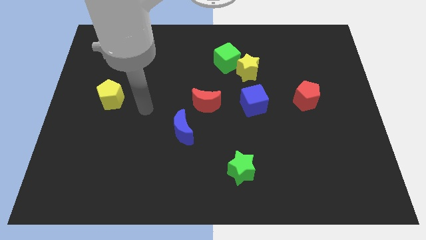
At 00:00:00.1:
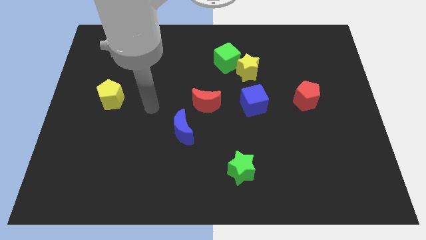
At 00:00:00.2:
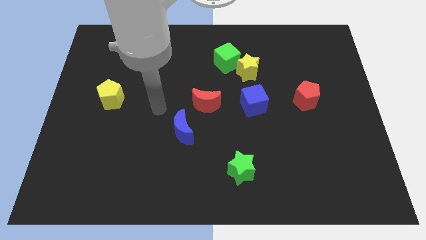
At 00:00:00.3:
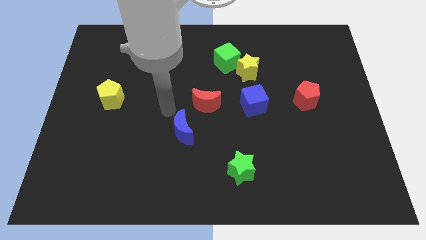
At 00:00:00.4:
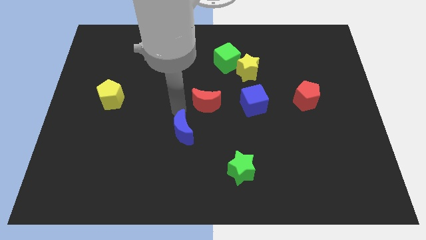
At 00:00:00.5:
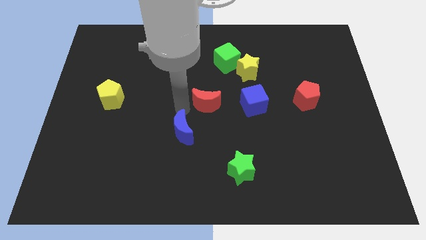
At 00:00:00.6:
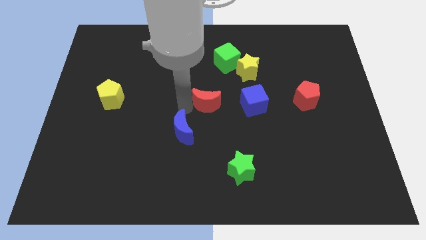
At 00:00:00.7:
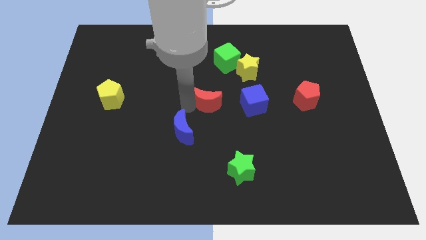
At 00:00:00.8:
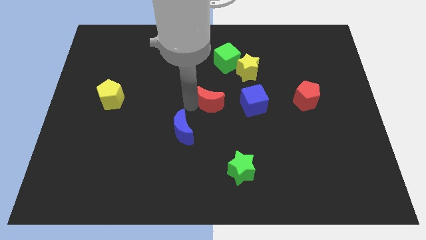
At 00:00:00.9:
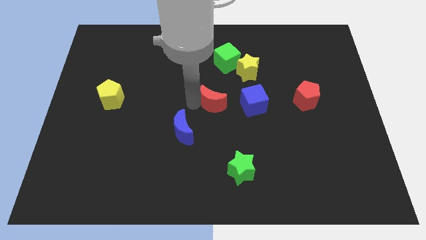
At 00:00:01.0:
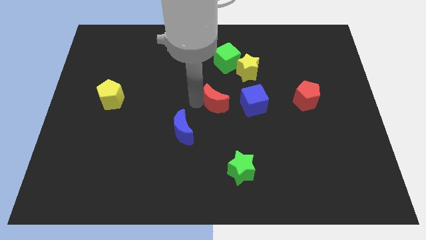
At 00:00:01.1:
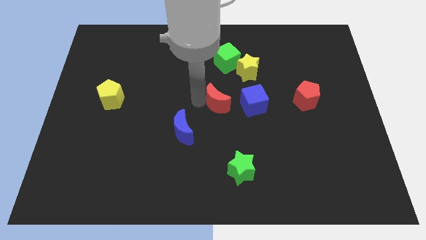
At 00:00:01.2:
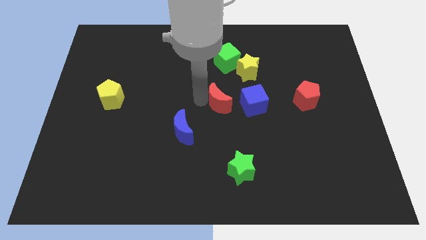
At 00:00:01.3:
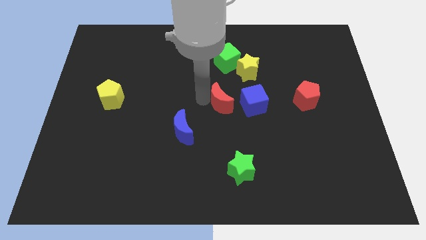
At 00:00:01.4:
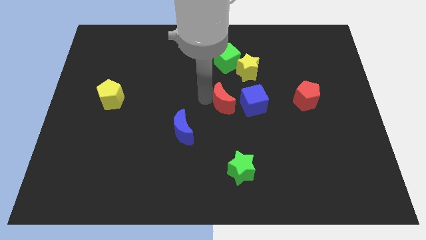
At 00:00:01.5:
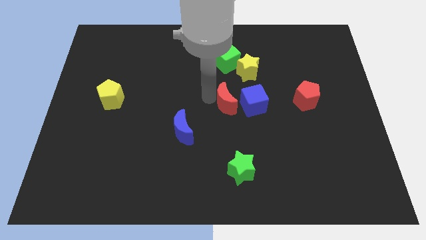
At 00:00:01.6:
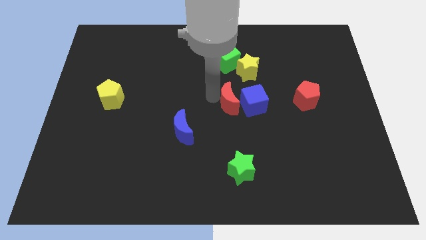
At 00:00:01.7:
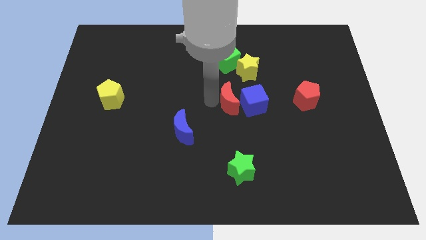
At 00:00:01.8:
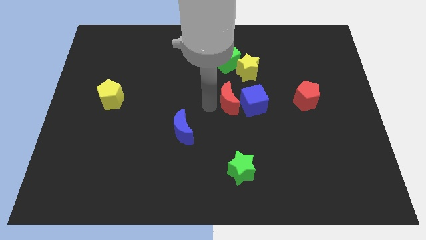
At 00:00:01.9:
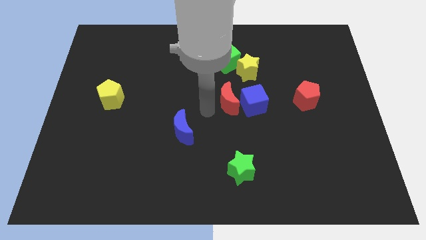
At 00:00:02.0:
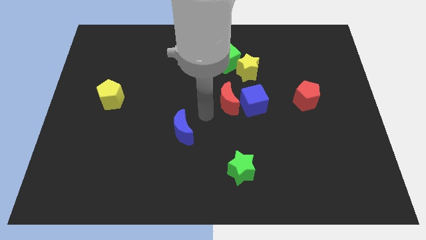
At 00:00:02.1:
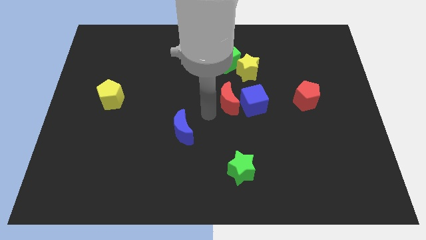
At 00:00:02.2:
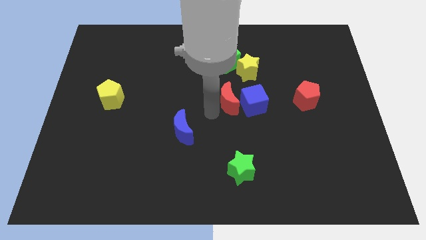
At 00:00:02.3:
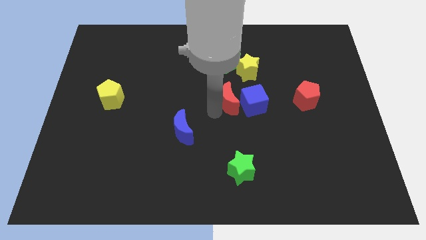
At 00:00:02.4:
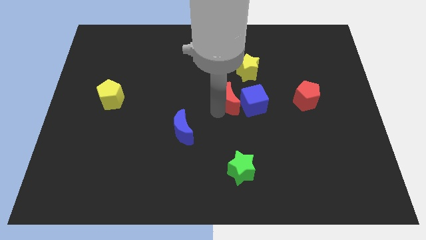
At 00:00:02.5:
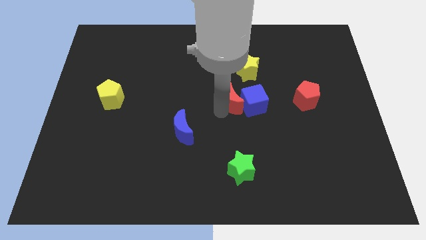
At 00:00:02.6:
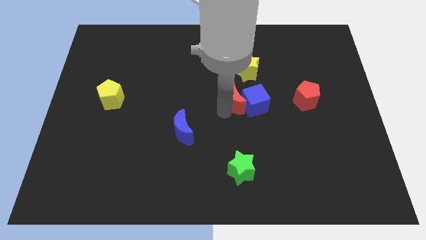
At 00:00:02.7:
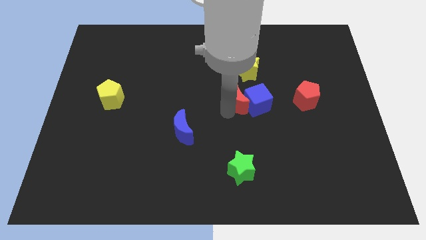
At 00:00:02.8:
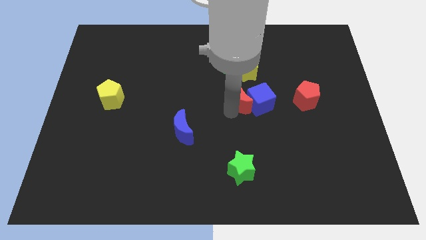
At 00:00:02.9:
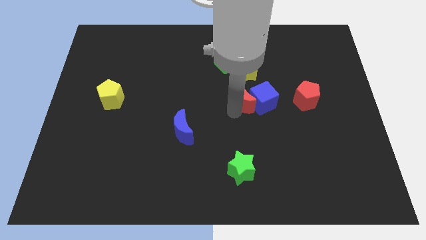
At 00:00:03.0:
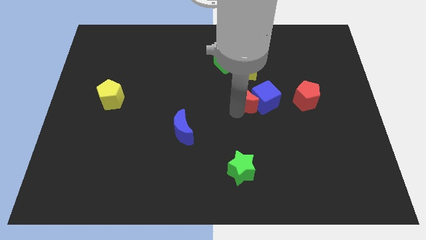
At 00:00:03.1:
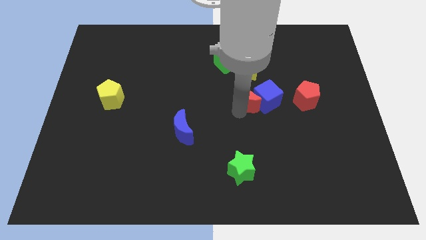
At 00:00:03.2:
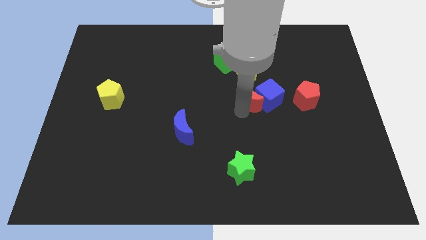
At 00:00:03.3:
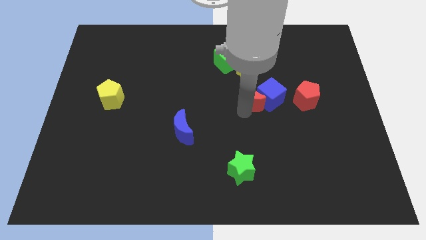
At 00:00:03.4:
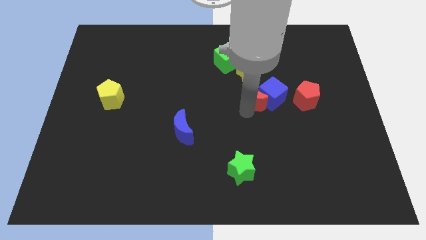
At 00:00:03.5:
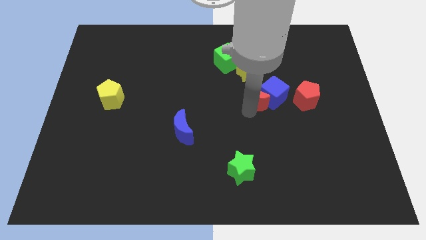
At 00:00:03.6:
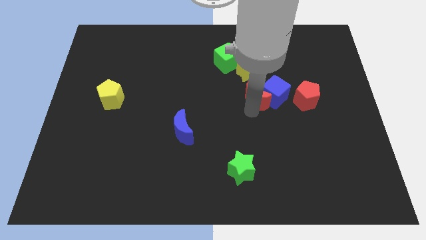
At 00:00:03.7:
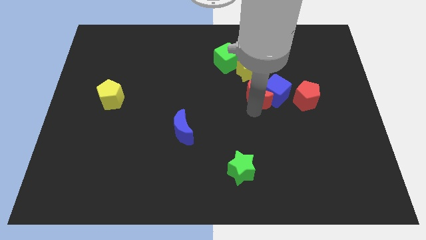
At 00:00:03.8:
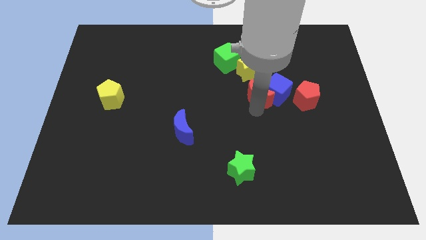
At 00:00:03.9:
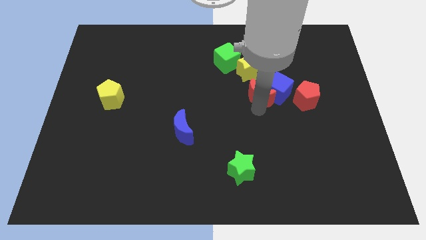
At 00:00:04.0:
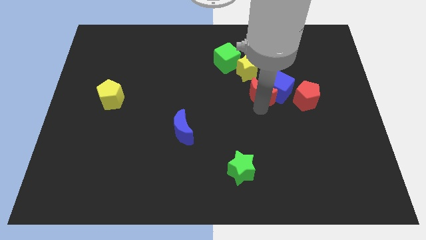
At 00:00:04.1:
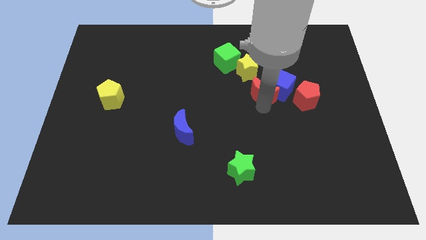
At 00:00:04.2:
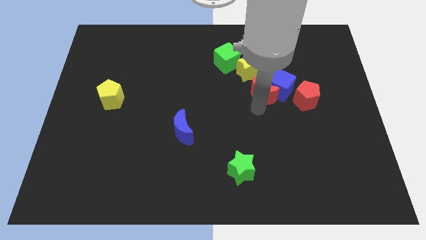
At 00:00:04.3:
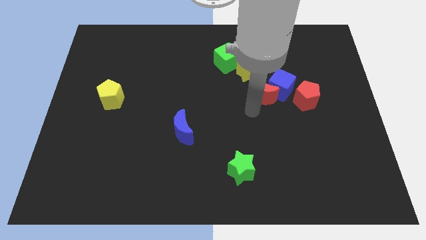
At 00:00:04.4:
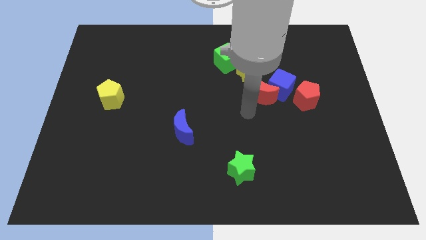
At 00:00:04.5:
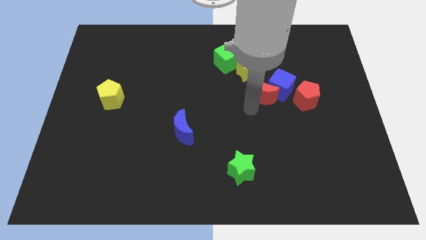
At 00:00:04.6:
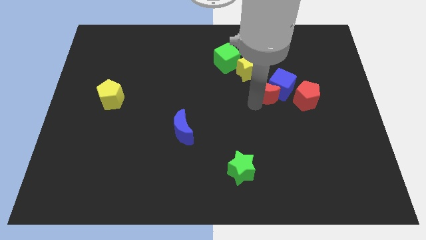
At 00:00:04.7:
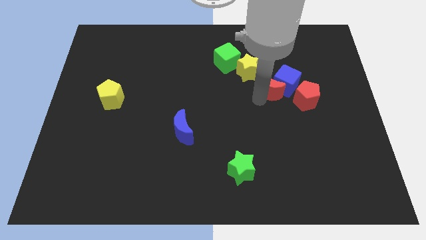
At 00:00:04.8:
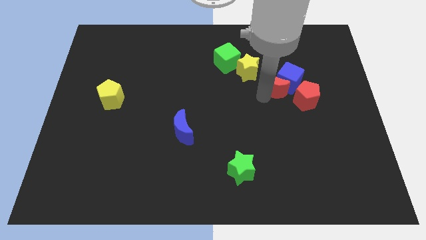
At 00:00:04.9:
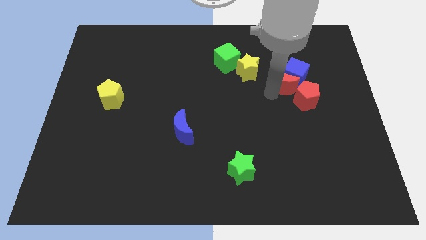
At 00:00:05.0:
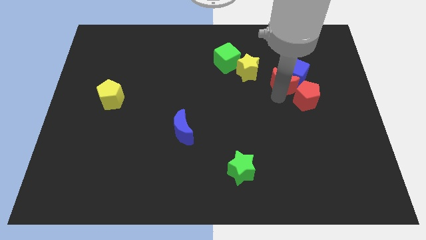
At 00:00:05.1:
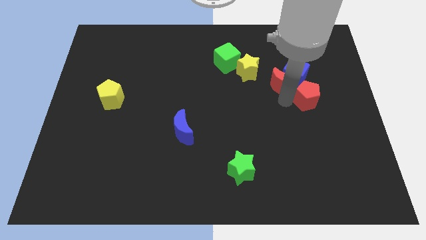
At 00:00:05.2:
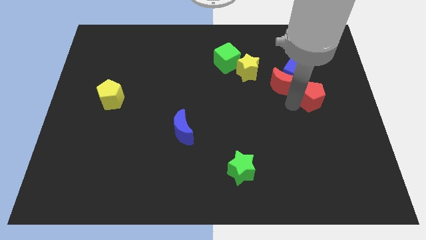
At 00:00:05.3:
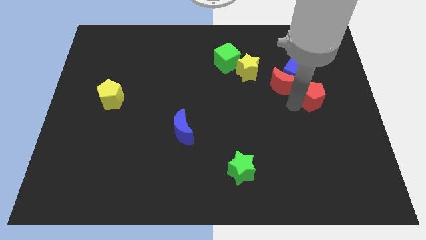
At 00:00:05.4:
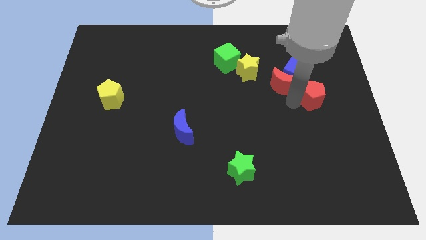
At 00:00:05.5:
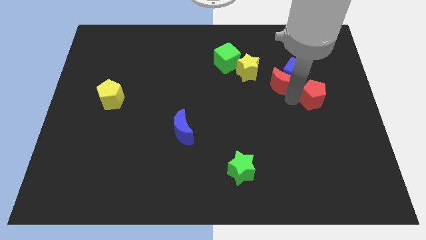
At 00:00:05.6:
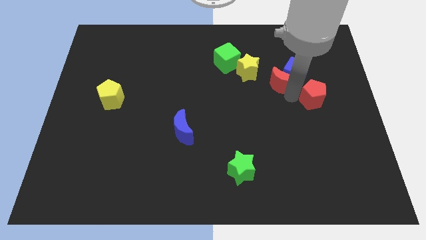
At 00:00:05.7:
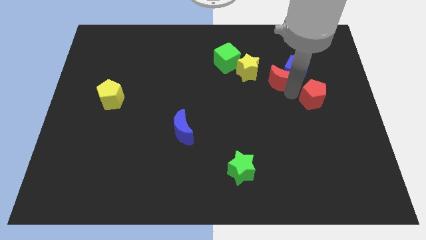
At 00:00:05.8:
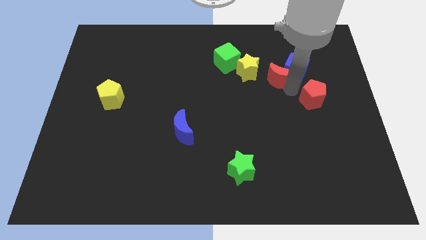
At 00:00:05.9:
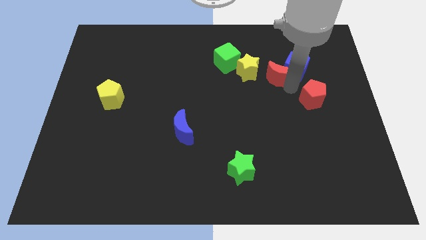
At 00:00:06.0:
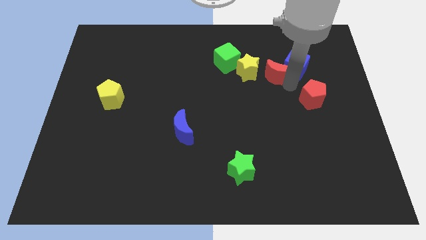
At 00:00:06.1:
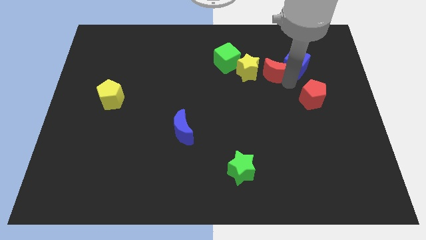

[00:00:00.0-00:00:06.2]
move the red moon just right of the green cube

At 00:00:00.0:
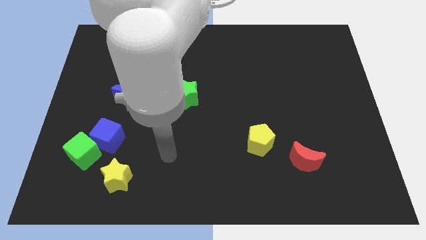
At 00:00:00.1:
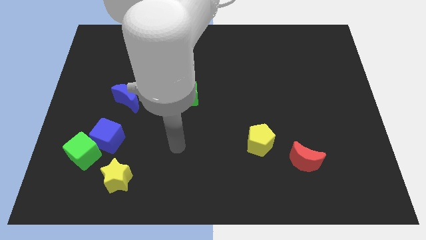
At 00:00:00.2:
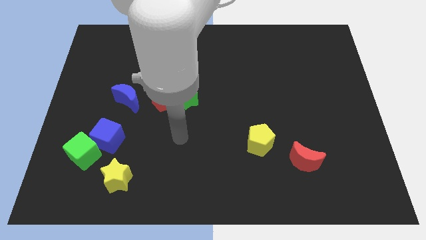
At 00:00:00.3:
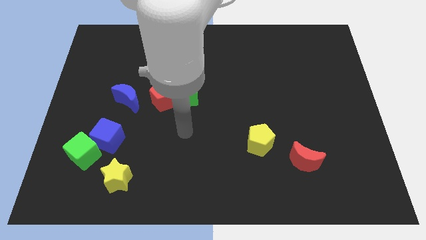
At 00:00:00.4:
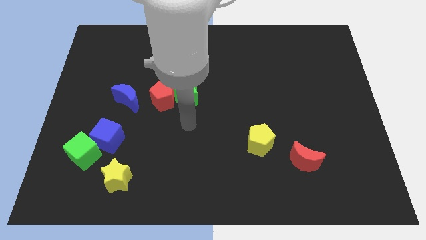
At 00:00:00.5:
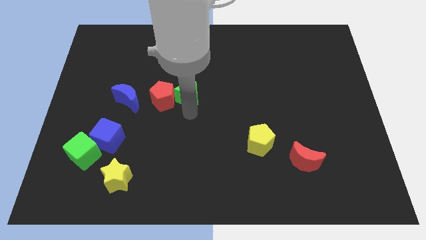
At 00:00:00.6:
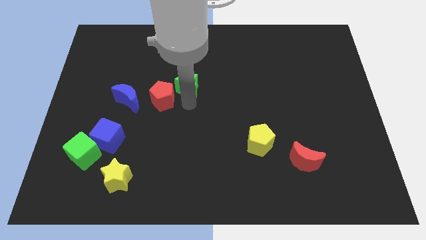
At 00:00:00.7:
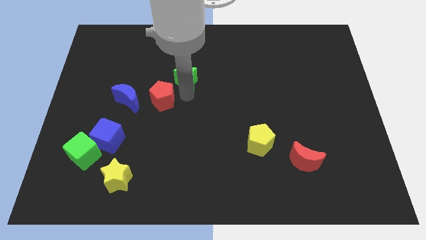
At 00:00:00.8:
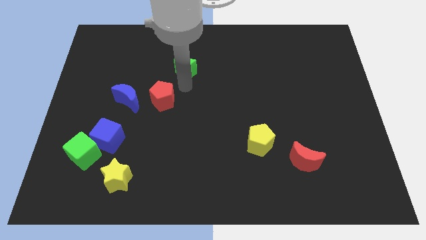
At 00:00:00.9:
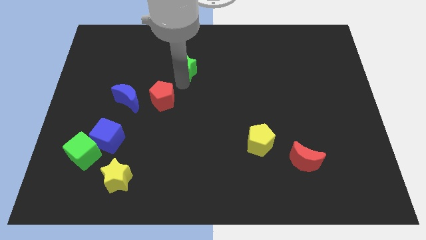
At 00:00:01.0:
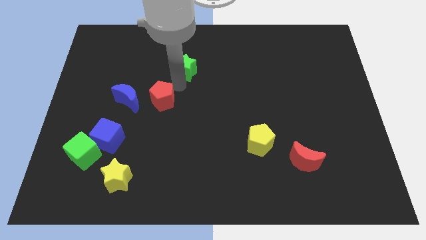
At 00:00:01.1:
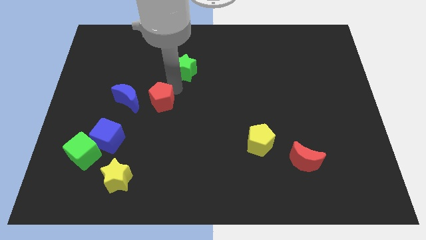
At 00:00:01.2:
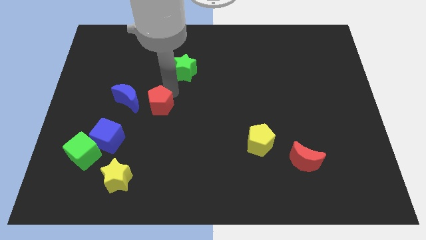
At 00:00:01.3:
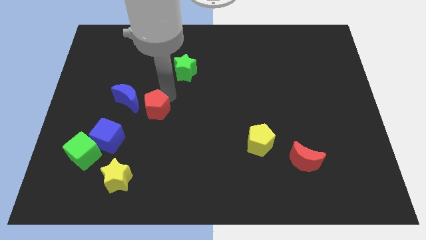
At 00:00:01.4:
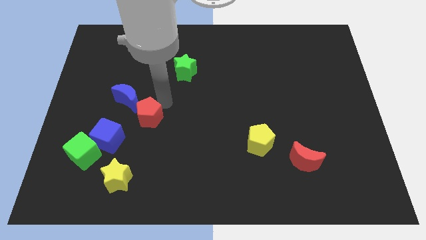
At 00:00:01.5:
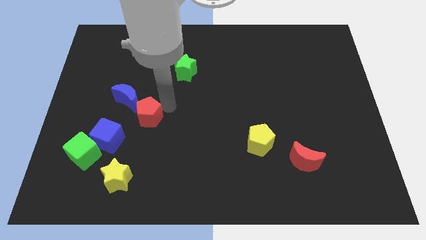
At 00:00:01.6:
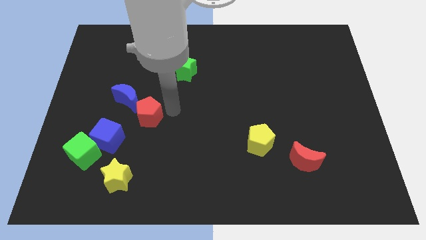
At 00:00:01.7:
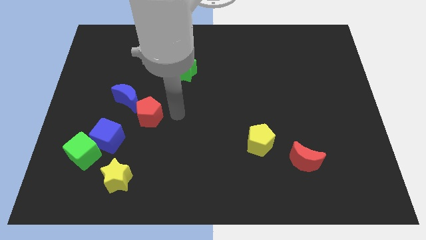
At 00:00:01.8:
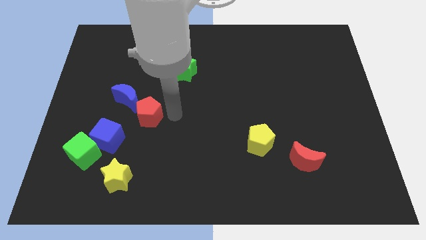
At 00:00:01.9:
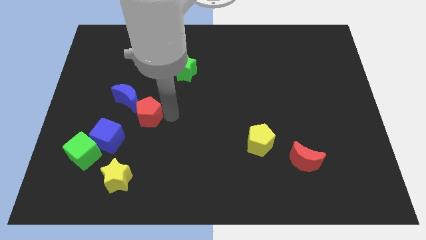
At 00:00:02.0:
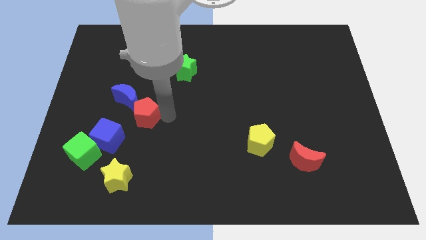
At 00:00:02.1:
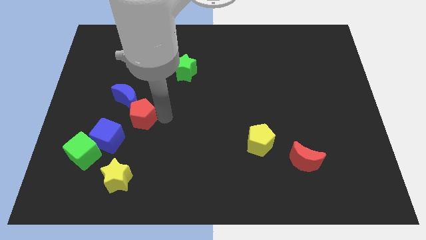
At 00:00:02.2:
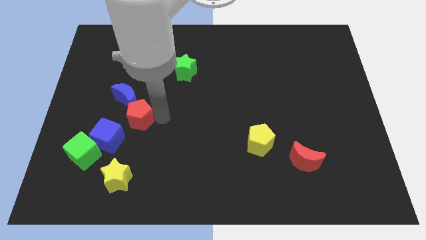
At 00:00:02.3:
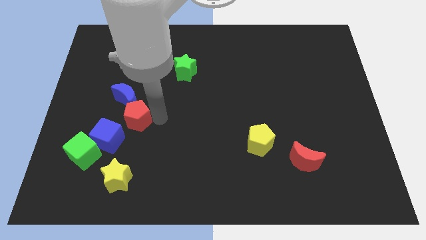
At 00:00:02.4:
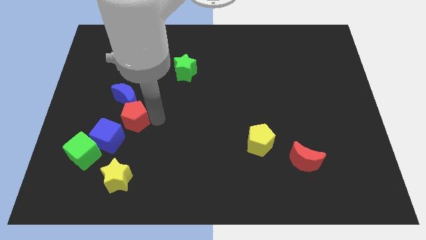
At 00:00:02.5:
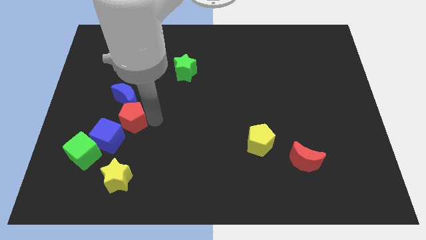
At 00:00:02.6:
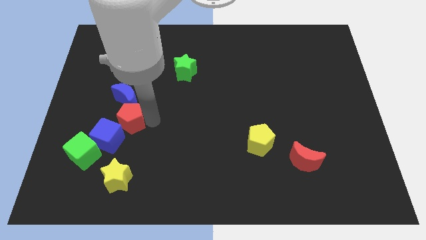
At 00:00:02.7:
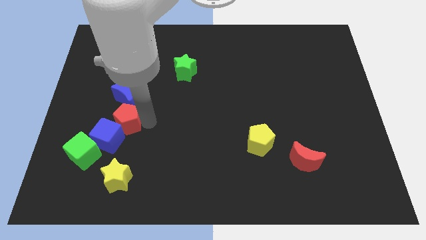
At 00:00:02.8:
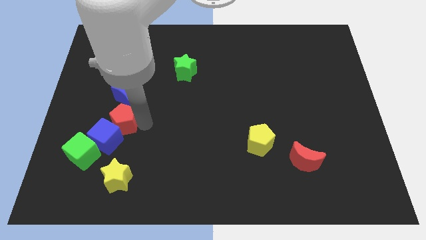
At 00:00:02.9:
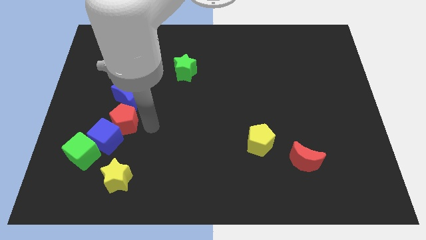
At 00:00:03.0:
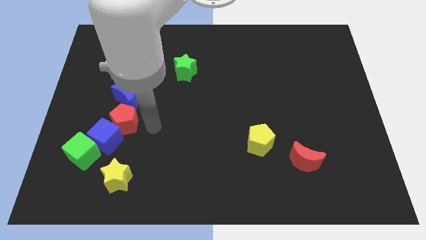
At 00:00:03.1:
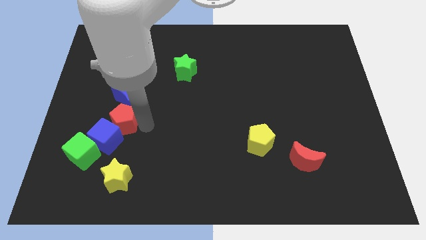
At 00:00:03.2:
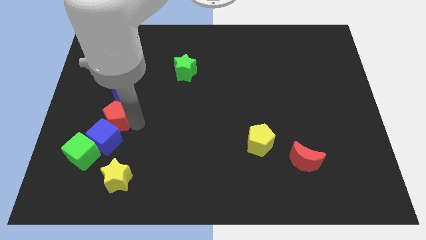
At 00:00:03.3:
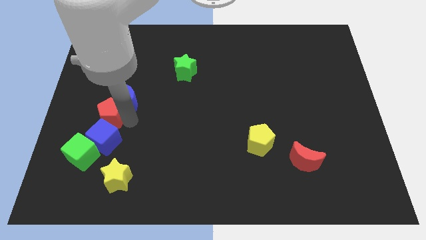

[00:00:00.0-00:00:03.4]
push the red pentagon above the green cube
